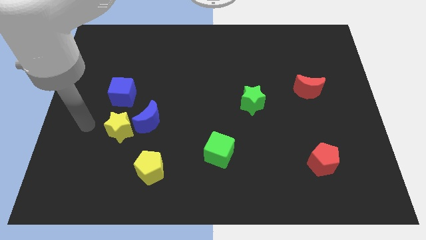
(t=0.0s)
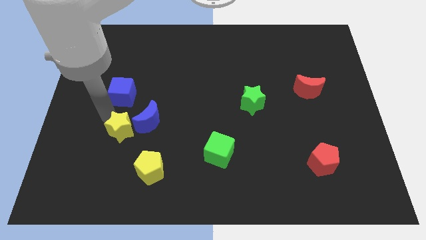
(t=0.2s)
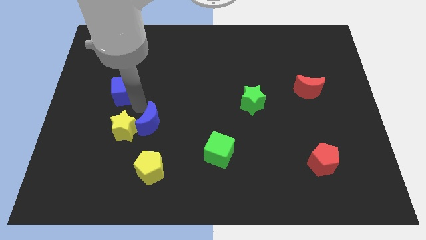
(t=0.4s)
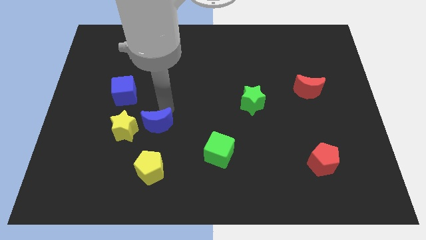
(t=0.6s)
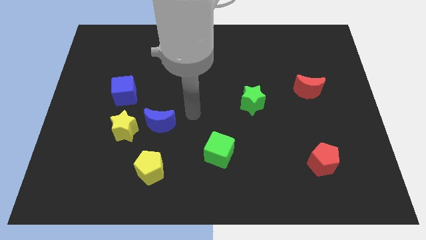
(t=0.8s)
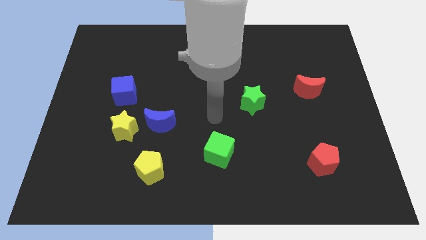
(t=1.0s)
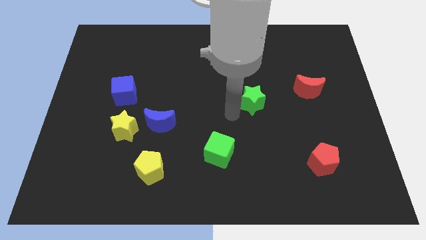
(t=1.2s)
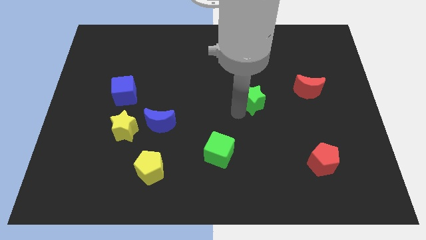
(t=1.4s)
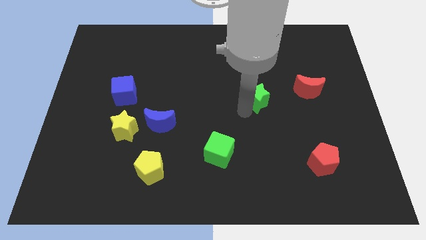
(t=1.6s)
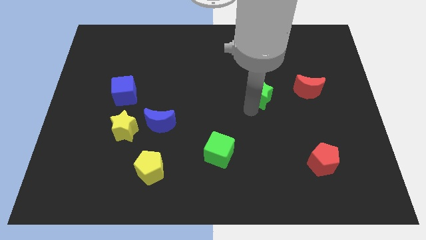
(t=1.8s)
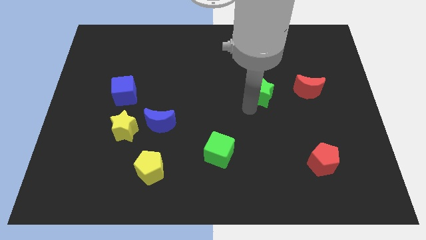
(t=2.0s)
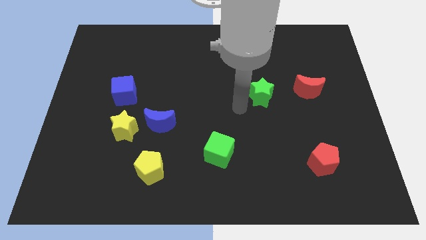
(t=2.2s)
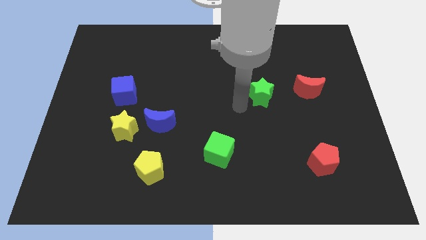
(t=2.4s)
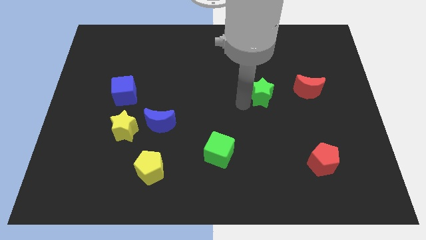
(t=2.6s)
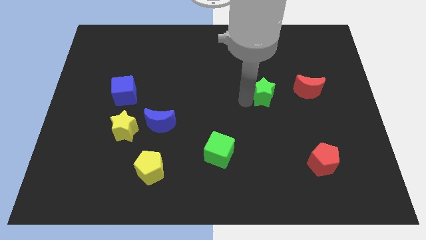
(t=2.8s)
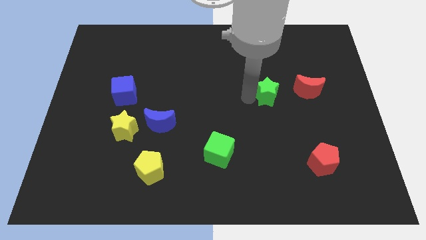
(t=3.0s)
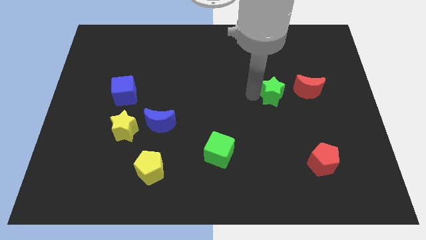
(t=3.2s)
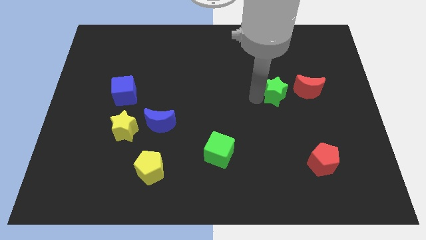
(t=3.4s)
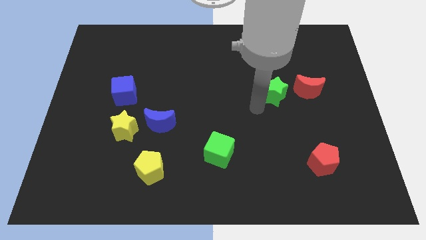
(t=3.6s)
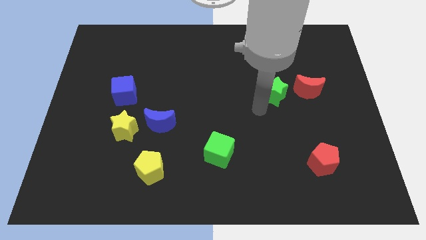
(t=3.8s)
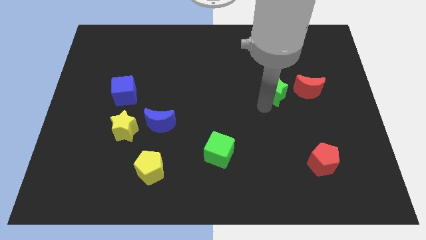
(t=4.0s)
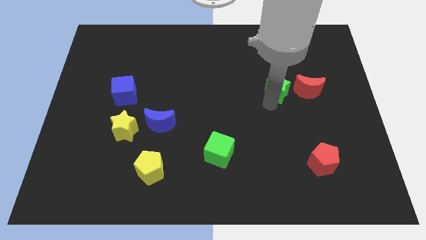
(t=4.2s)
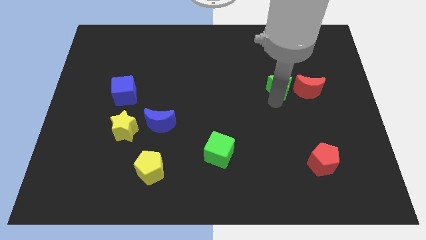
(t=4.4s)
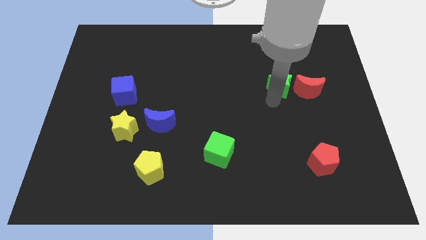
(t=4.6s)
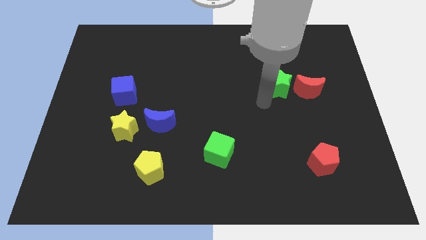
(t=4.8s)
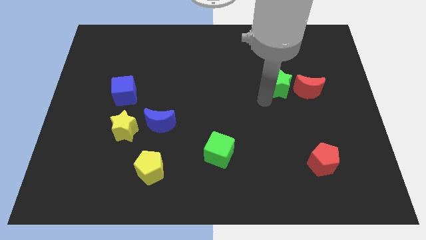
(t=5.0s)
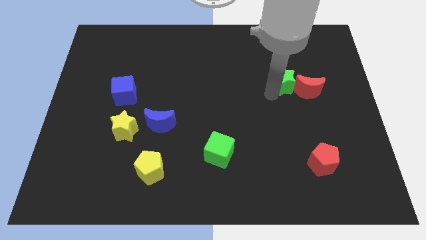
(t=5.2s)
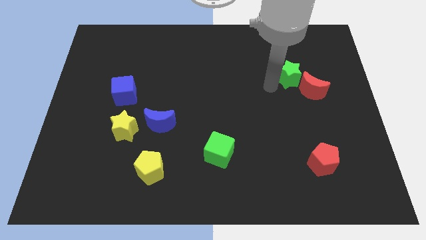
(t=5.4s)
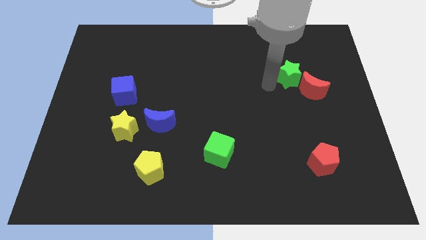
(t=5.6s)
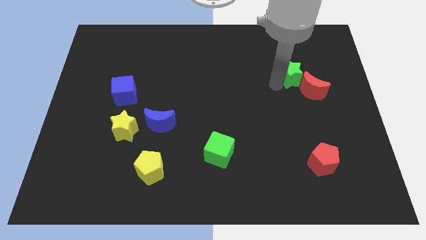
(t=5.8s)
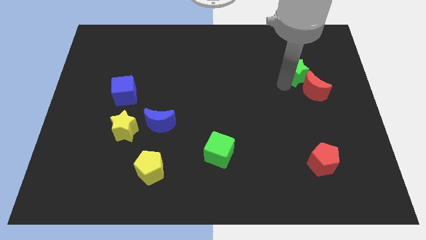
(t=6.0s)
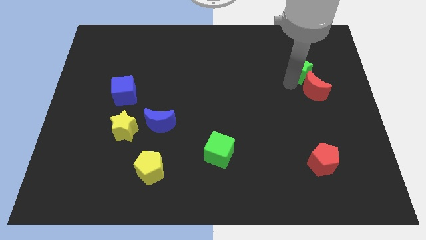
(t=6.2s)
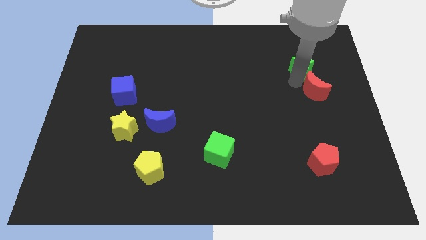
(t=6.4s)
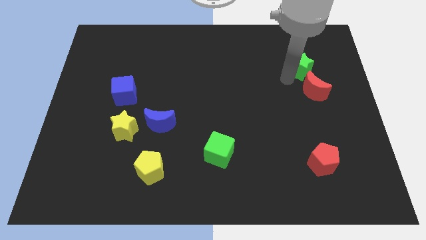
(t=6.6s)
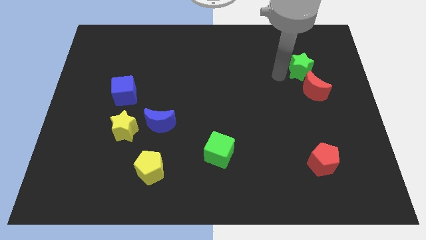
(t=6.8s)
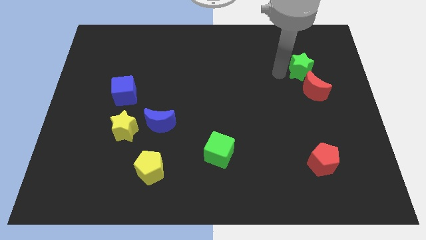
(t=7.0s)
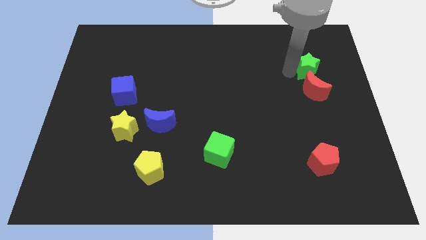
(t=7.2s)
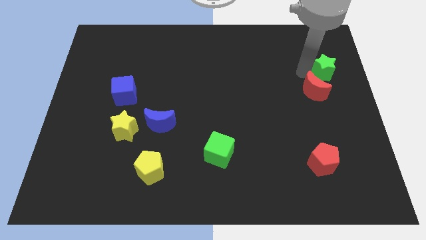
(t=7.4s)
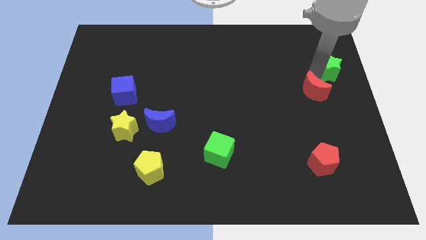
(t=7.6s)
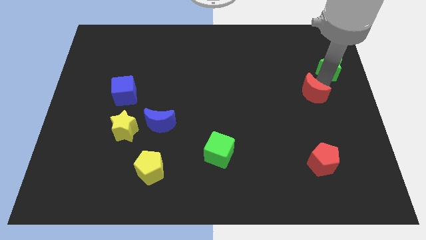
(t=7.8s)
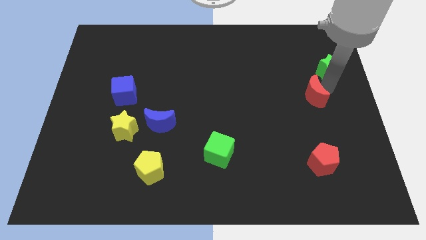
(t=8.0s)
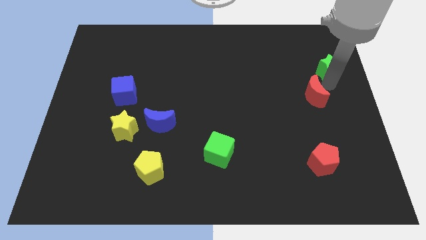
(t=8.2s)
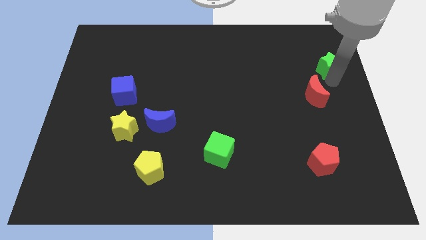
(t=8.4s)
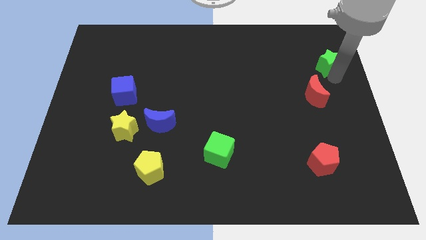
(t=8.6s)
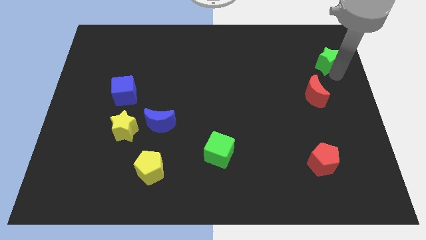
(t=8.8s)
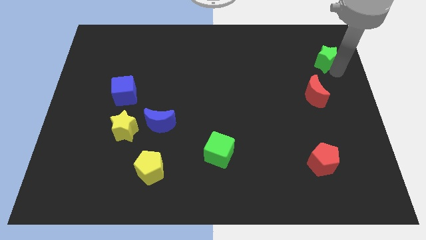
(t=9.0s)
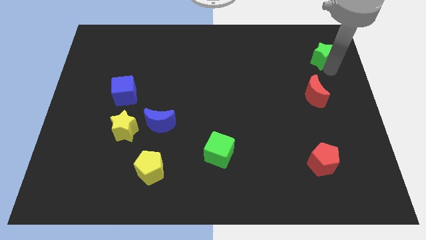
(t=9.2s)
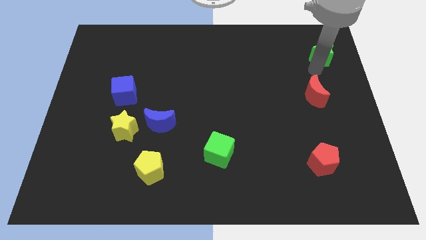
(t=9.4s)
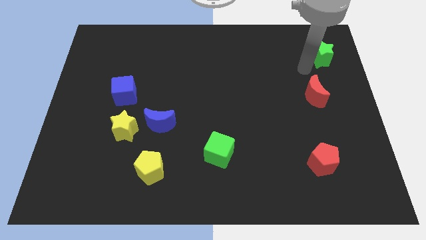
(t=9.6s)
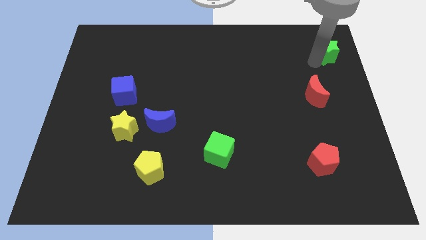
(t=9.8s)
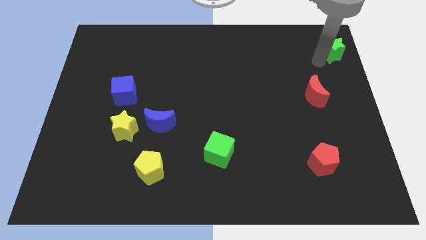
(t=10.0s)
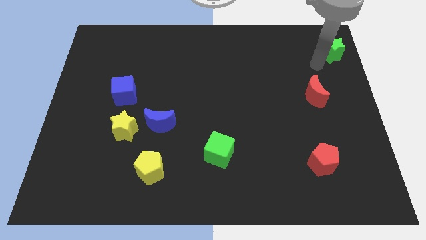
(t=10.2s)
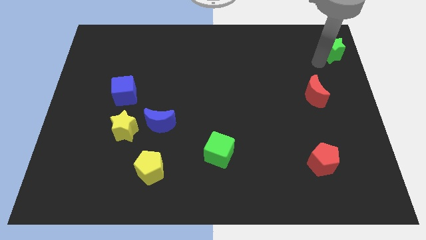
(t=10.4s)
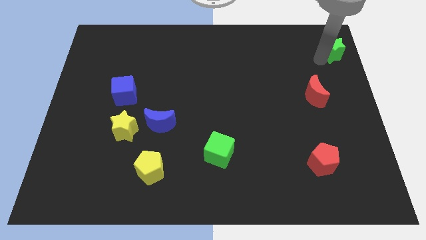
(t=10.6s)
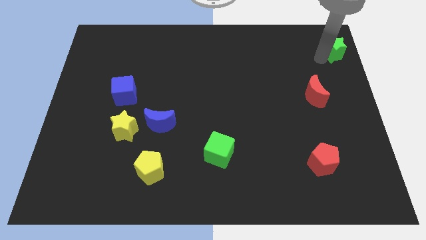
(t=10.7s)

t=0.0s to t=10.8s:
slide the green star to the top right of the board

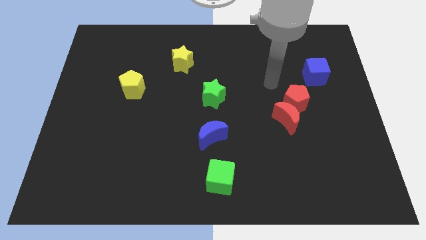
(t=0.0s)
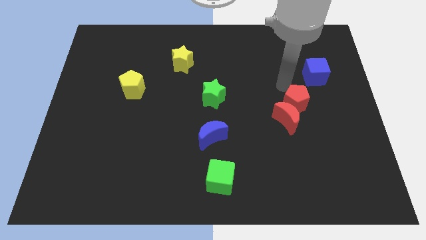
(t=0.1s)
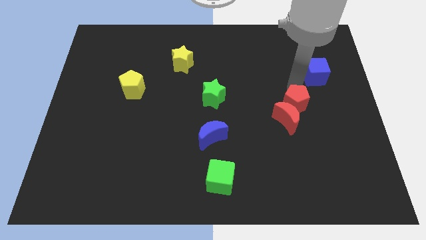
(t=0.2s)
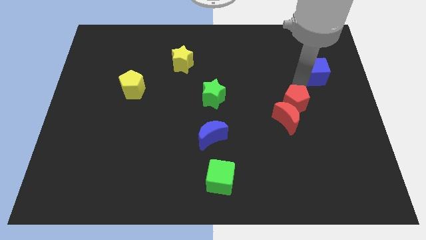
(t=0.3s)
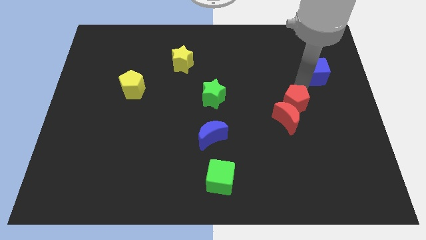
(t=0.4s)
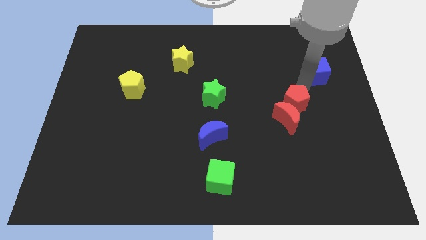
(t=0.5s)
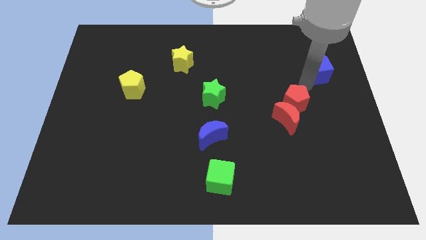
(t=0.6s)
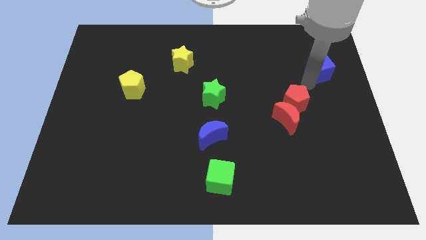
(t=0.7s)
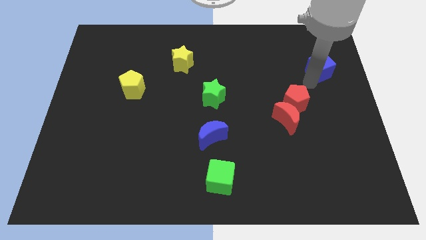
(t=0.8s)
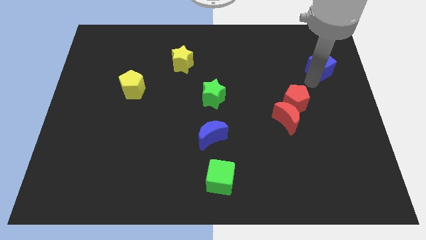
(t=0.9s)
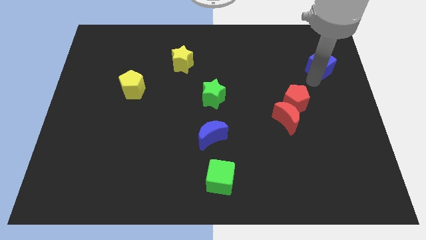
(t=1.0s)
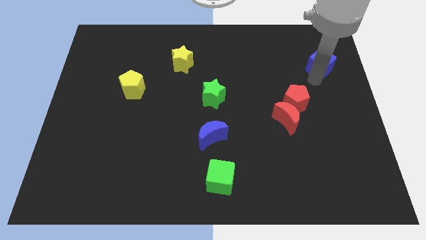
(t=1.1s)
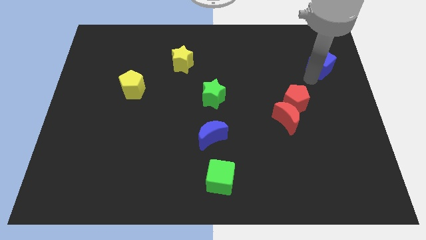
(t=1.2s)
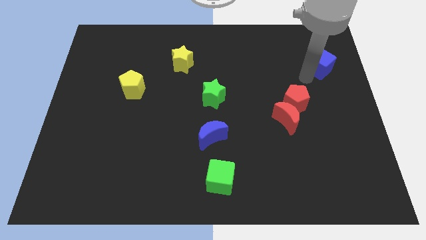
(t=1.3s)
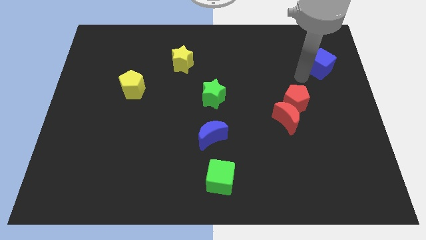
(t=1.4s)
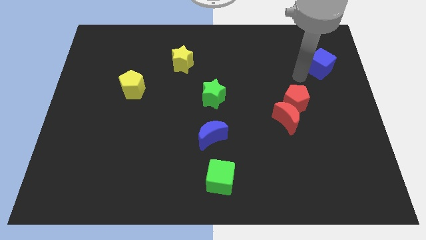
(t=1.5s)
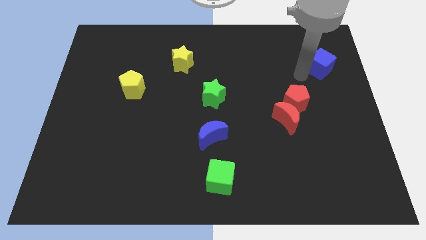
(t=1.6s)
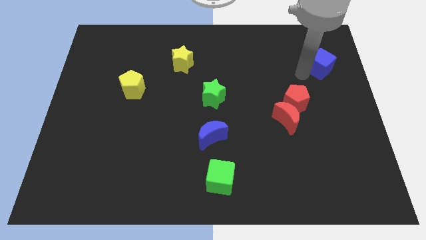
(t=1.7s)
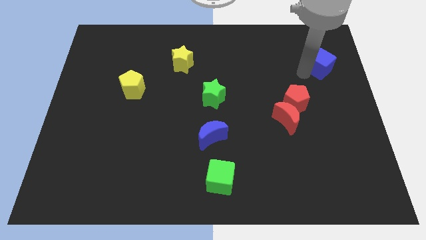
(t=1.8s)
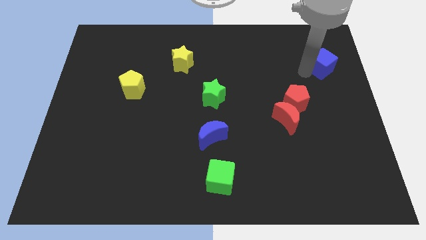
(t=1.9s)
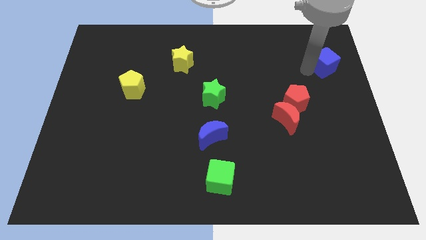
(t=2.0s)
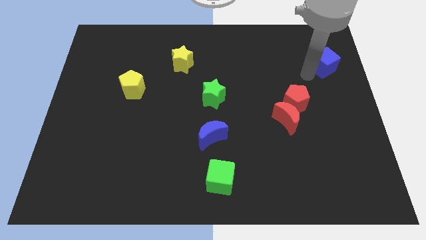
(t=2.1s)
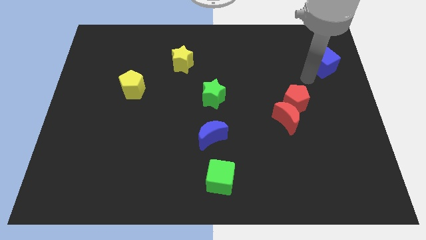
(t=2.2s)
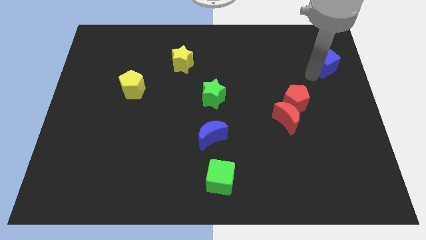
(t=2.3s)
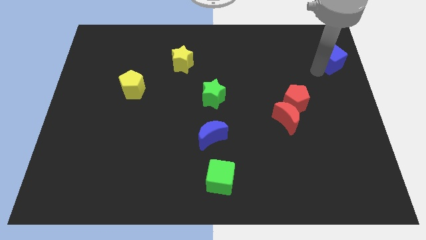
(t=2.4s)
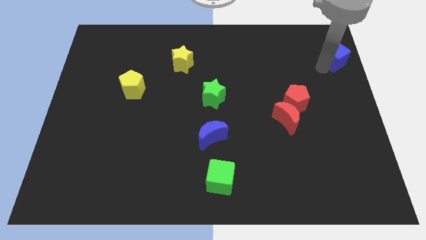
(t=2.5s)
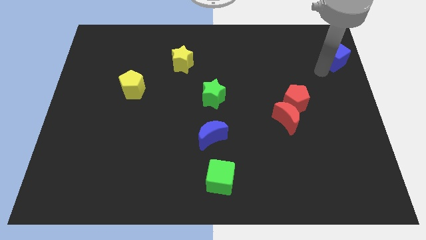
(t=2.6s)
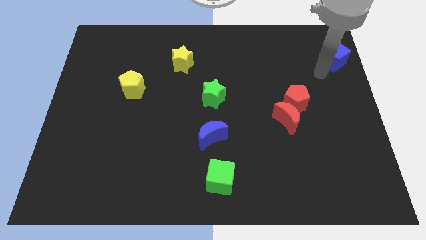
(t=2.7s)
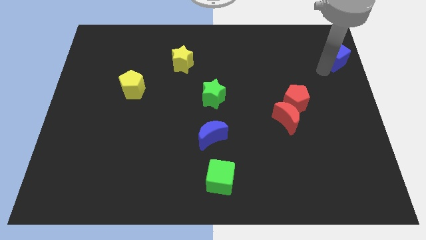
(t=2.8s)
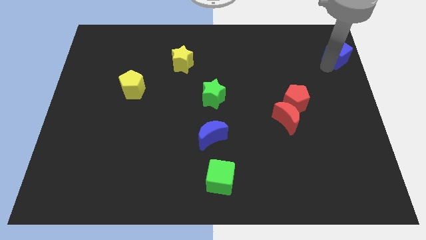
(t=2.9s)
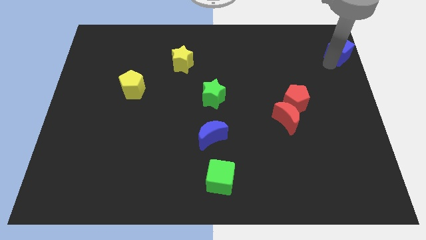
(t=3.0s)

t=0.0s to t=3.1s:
push the blue cube to the upper right corner
